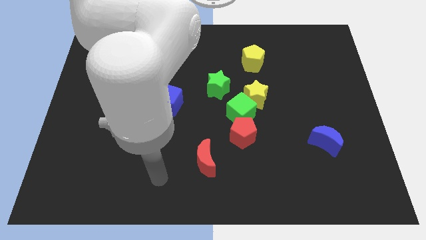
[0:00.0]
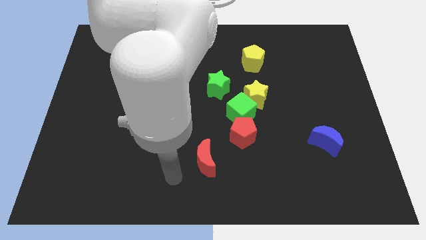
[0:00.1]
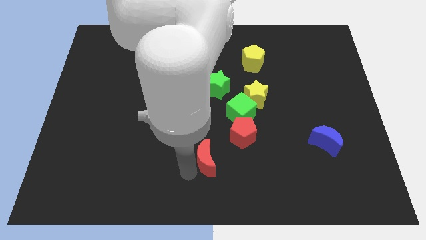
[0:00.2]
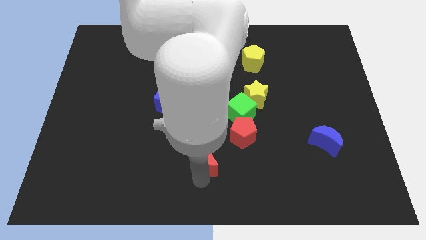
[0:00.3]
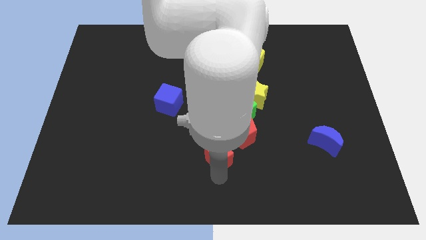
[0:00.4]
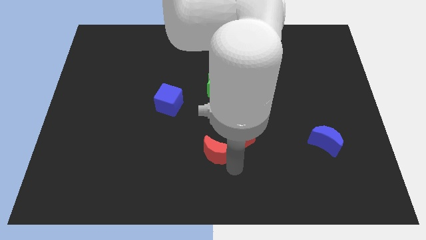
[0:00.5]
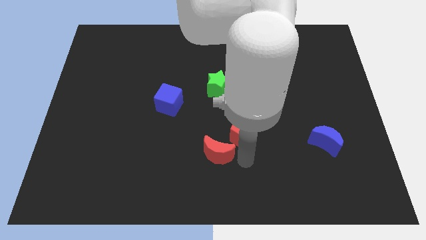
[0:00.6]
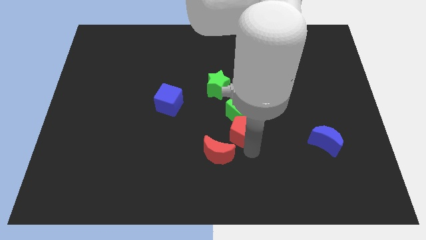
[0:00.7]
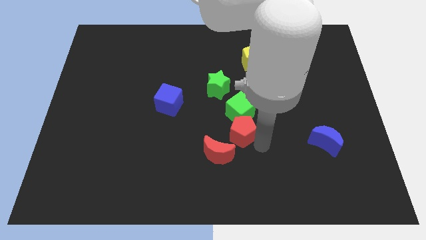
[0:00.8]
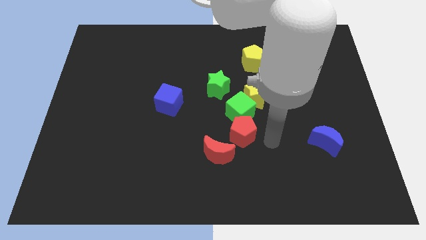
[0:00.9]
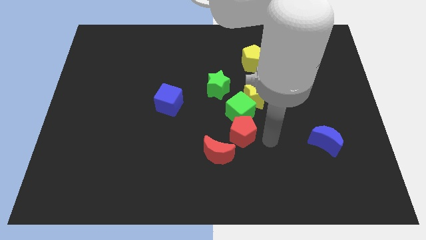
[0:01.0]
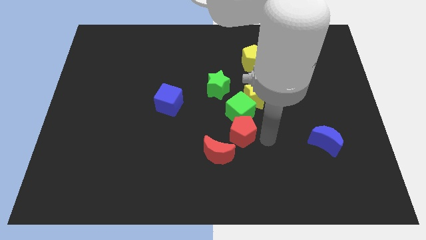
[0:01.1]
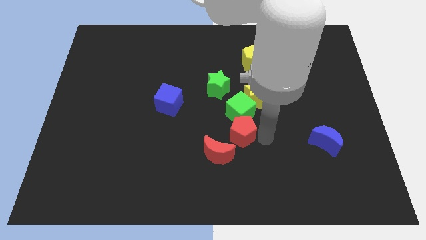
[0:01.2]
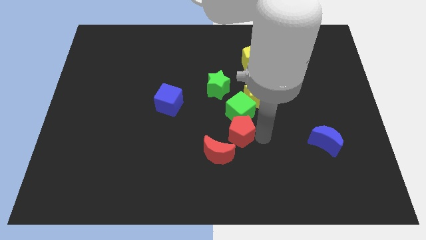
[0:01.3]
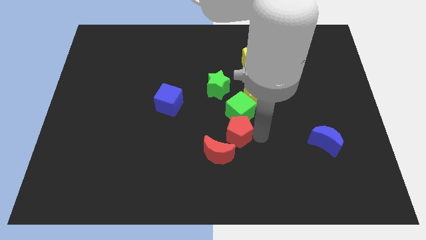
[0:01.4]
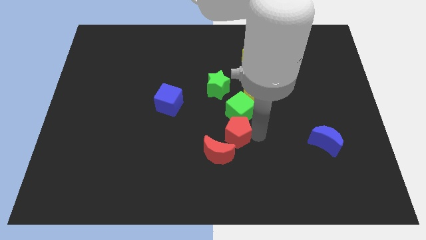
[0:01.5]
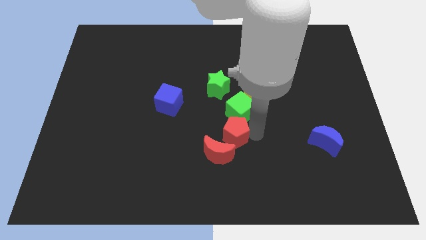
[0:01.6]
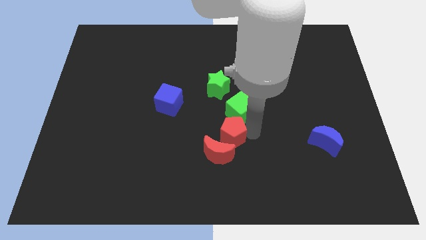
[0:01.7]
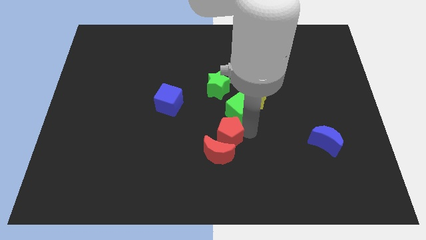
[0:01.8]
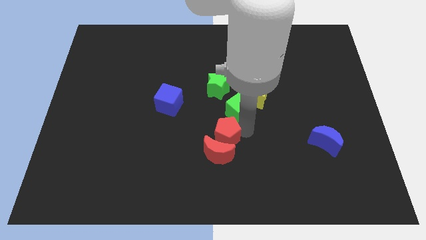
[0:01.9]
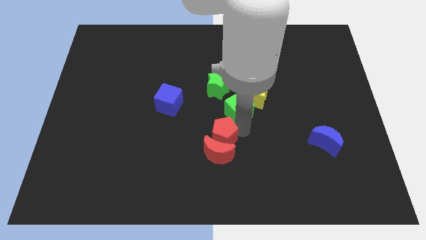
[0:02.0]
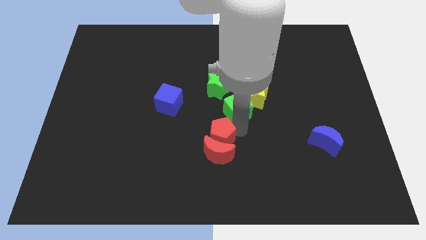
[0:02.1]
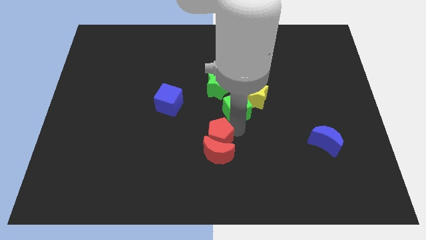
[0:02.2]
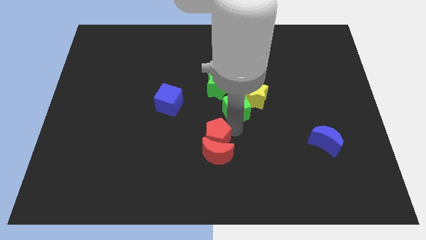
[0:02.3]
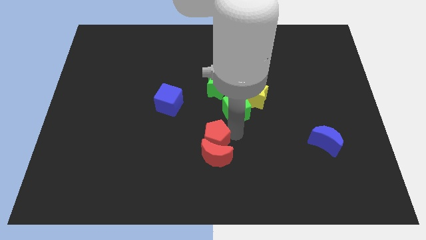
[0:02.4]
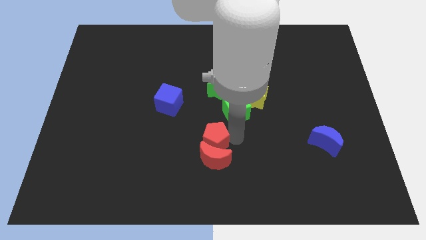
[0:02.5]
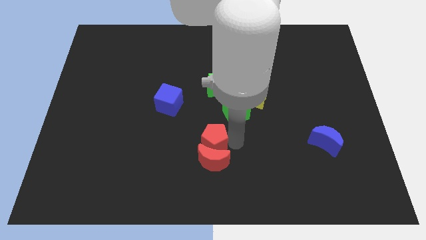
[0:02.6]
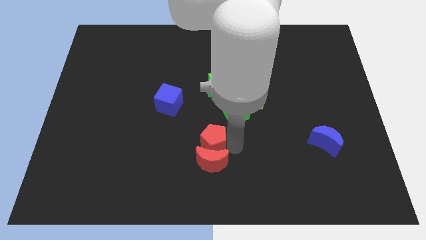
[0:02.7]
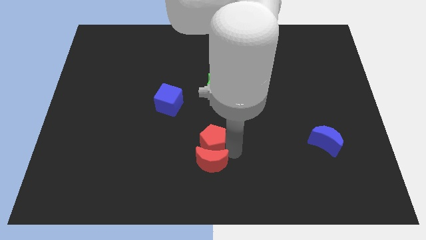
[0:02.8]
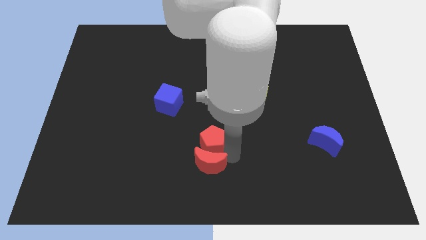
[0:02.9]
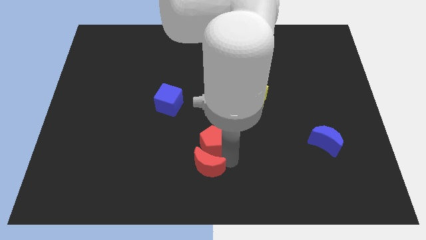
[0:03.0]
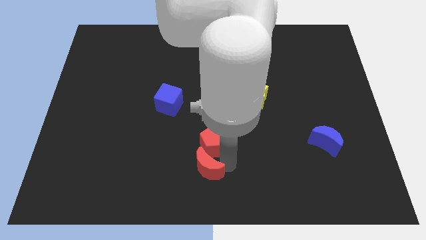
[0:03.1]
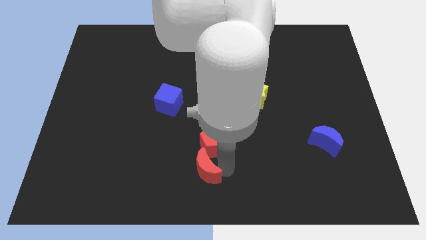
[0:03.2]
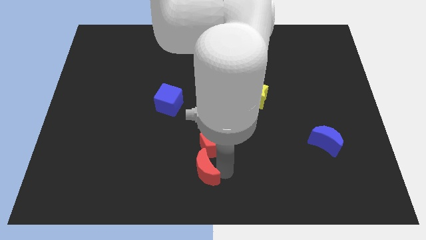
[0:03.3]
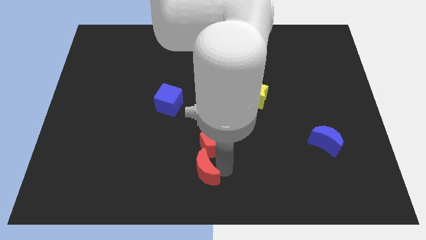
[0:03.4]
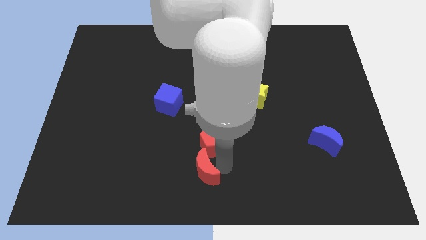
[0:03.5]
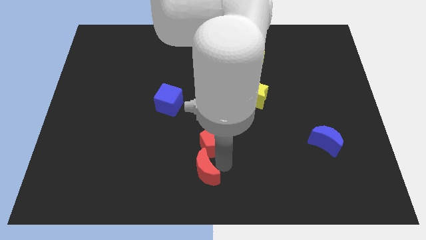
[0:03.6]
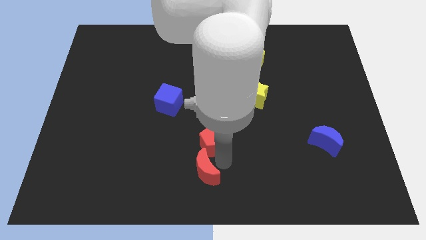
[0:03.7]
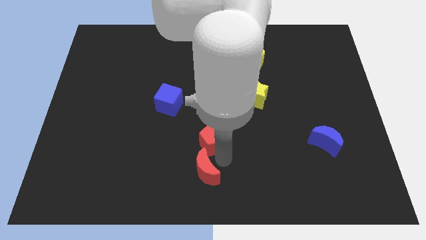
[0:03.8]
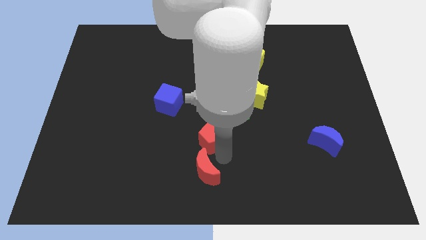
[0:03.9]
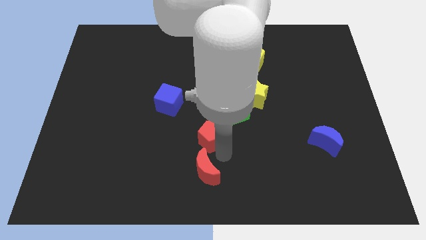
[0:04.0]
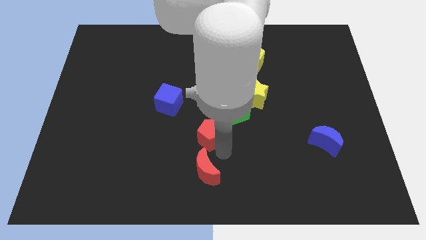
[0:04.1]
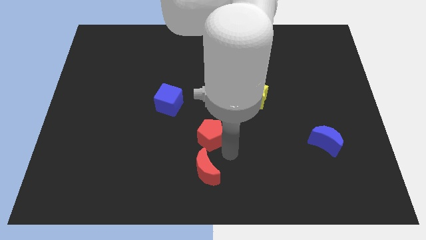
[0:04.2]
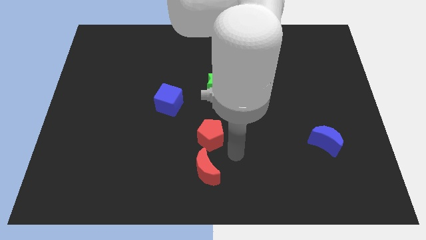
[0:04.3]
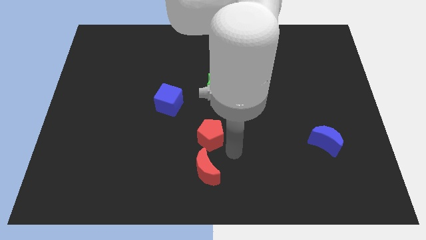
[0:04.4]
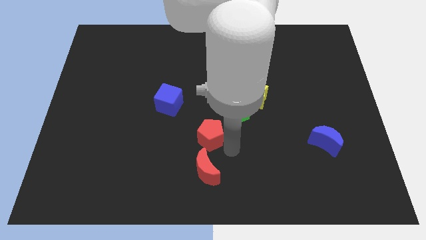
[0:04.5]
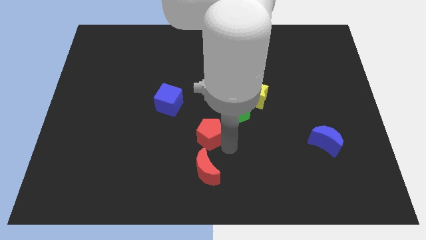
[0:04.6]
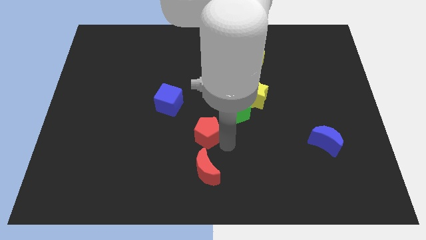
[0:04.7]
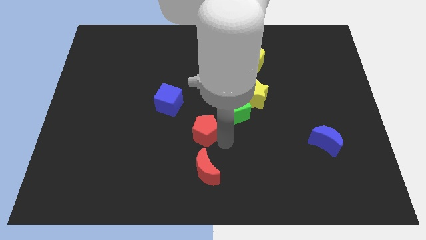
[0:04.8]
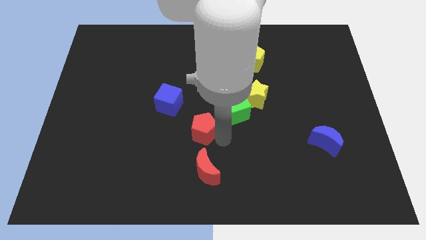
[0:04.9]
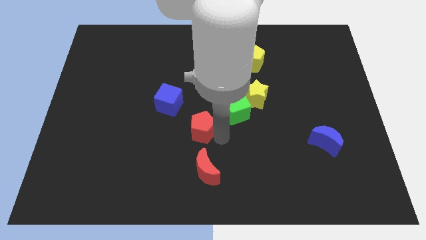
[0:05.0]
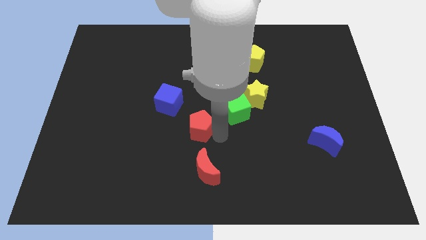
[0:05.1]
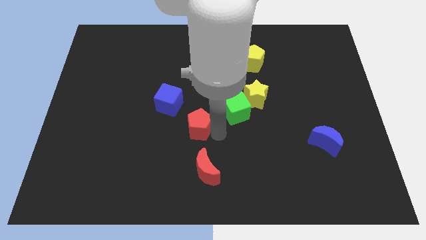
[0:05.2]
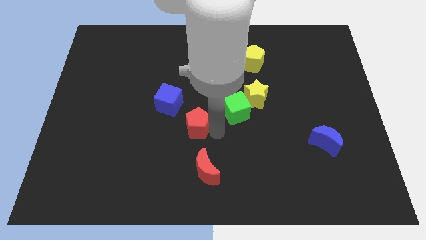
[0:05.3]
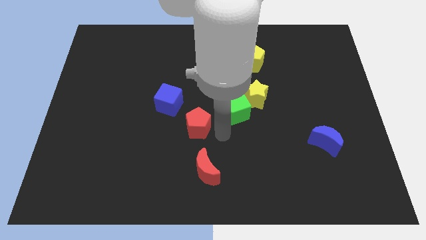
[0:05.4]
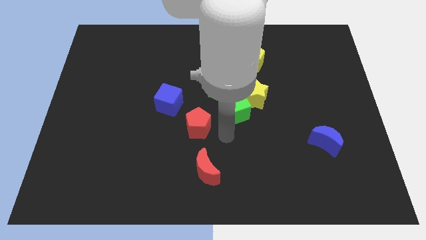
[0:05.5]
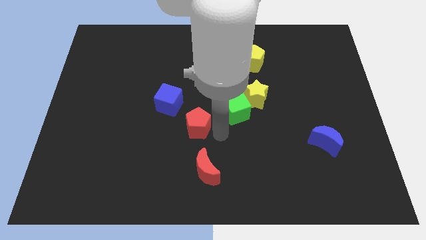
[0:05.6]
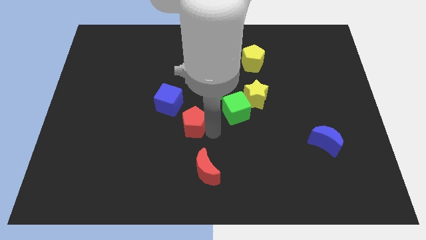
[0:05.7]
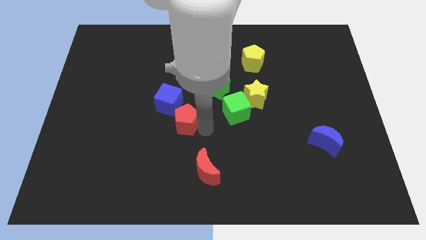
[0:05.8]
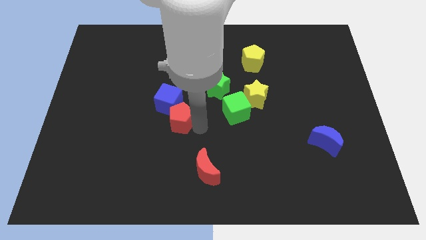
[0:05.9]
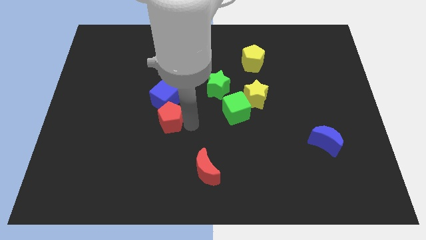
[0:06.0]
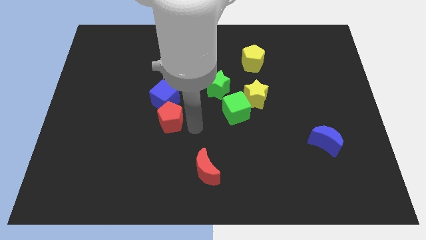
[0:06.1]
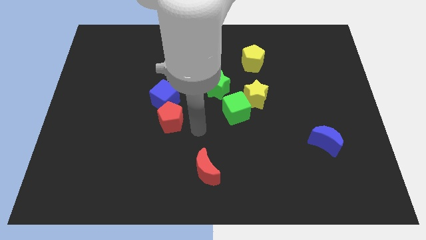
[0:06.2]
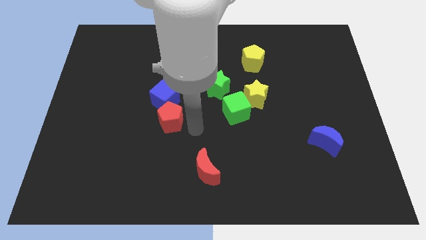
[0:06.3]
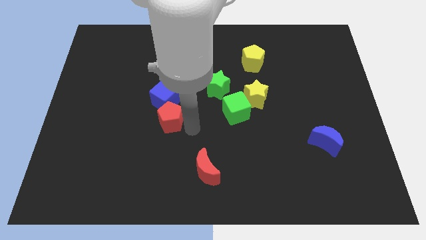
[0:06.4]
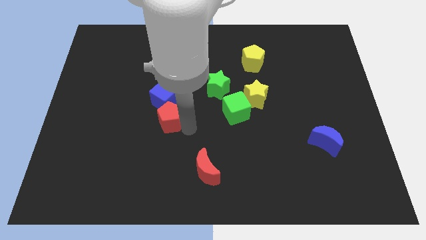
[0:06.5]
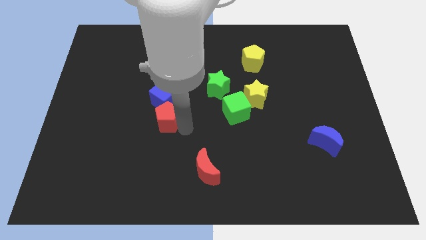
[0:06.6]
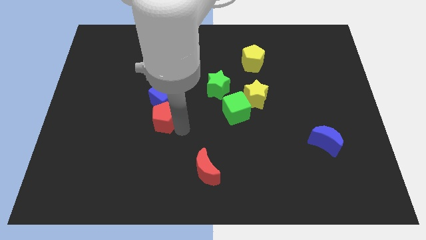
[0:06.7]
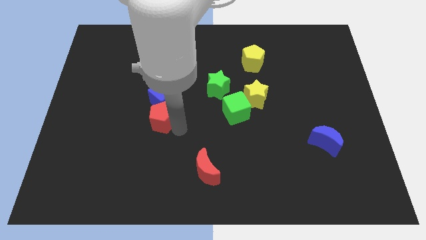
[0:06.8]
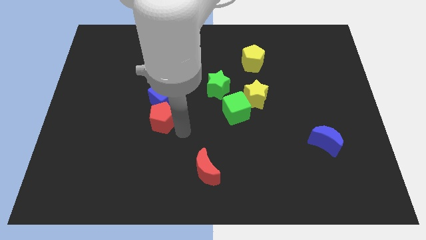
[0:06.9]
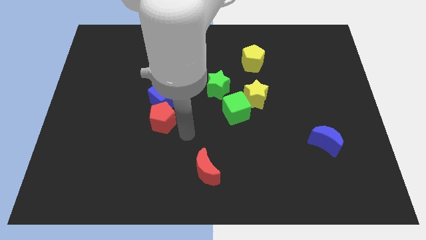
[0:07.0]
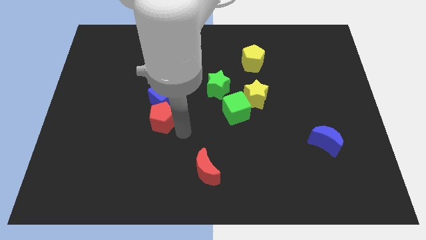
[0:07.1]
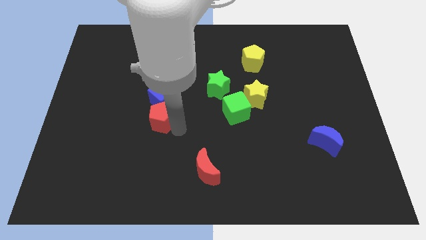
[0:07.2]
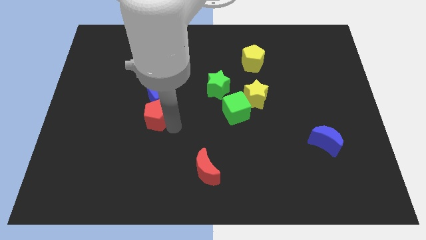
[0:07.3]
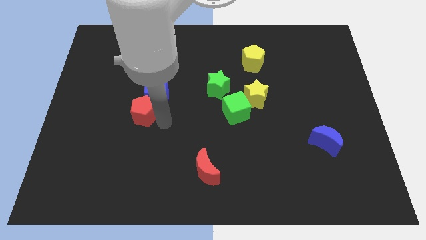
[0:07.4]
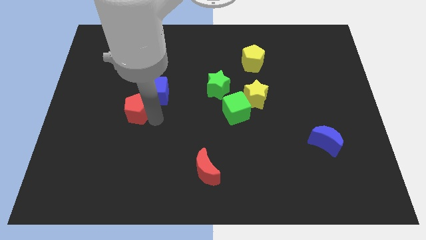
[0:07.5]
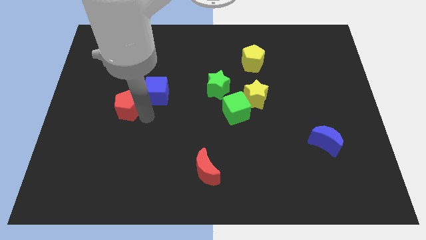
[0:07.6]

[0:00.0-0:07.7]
put the red pentagon just left of the blue cube
